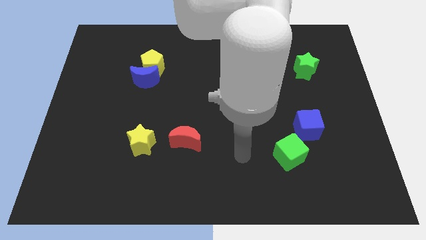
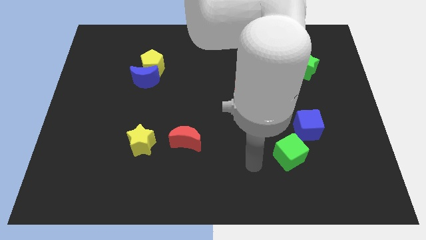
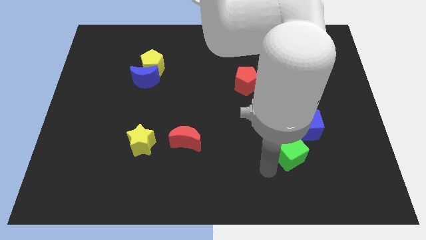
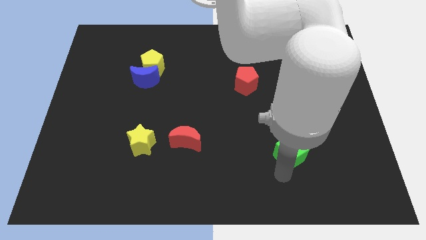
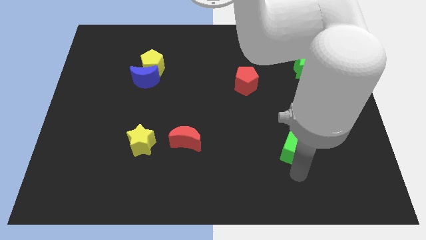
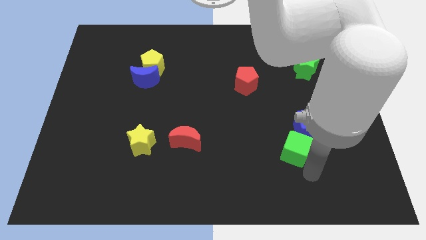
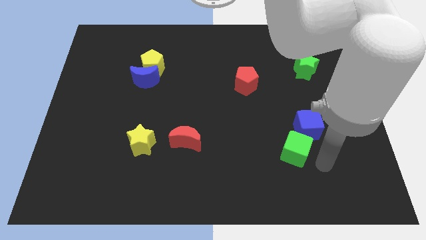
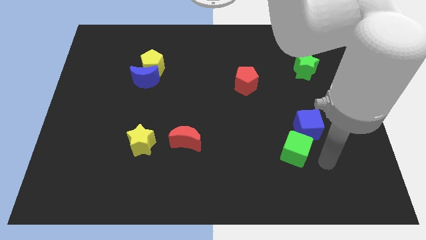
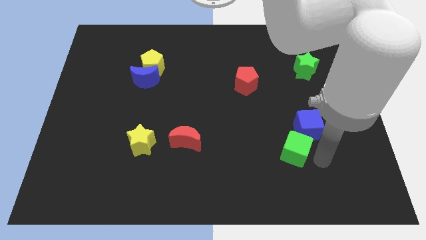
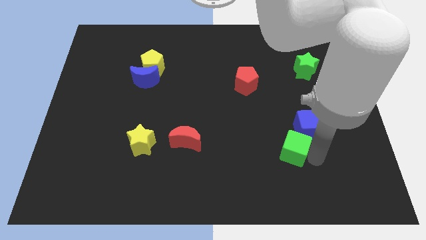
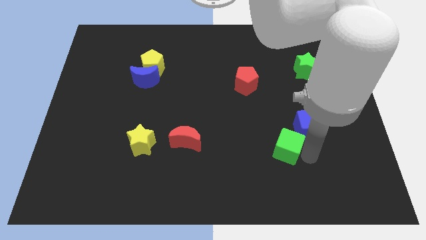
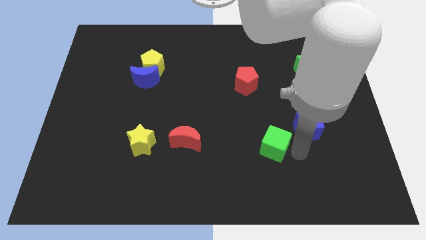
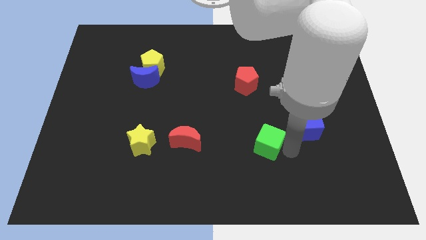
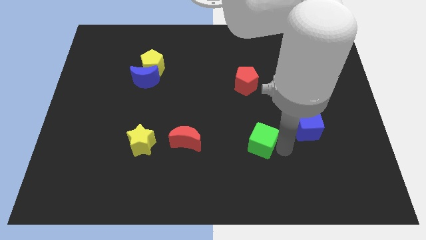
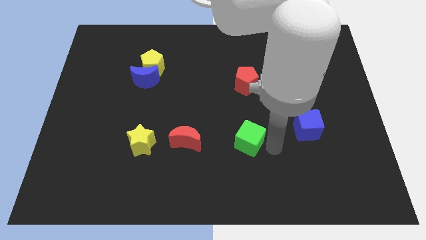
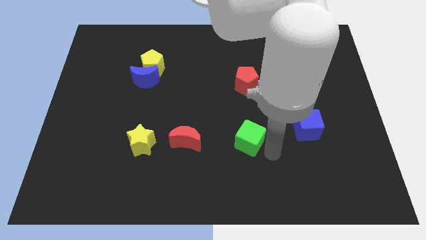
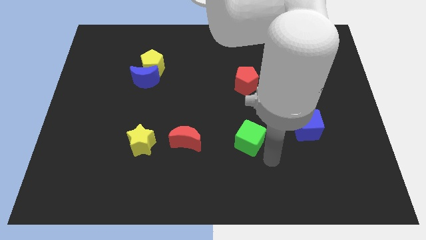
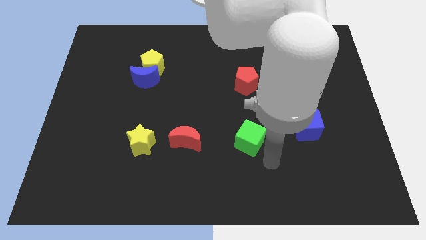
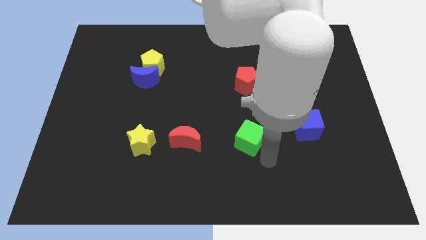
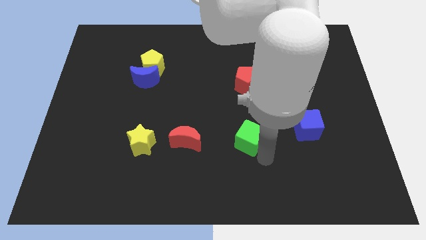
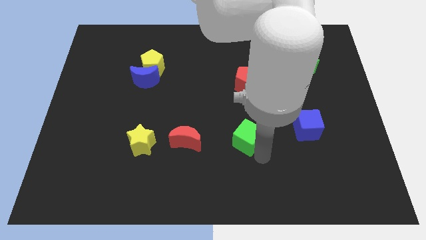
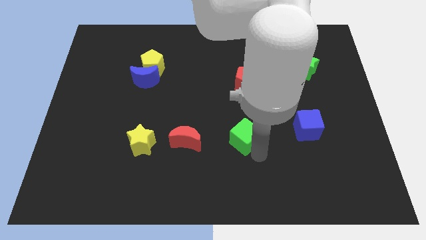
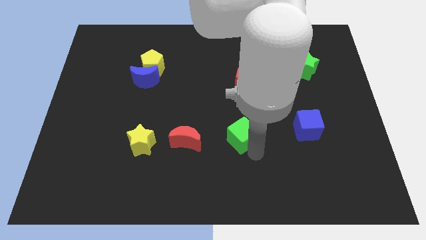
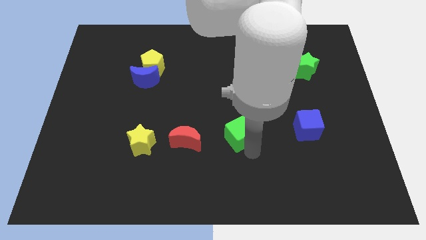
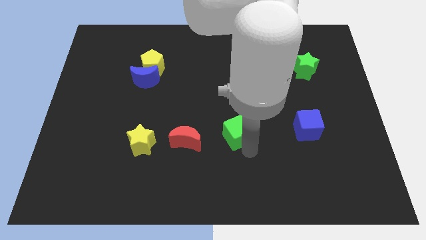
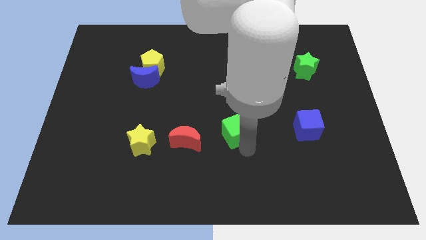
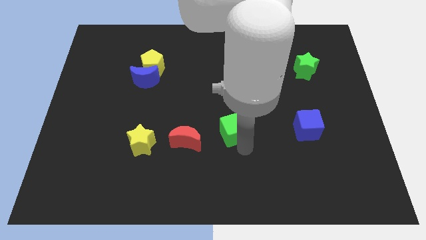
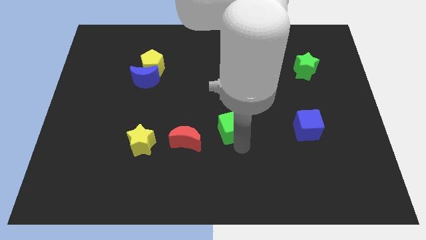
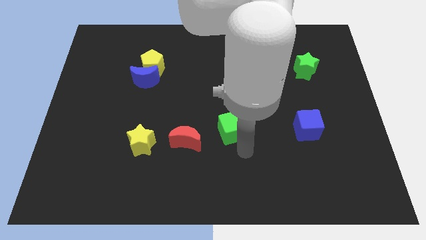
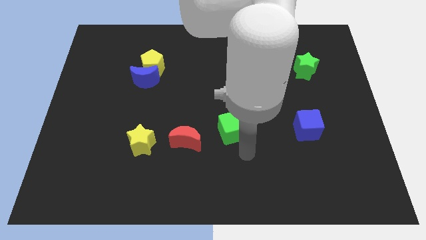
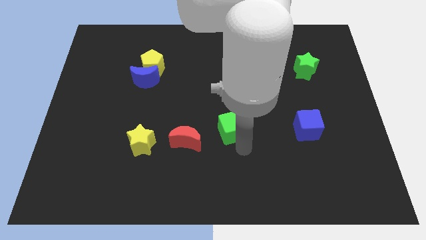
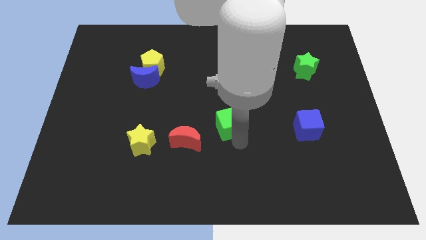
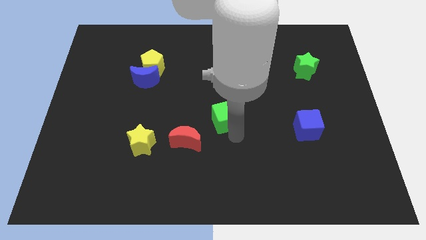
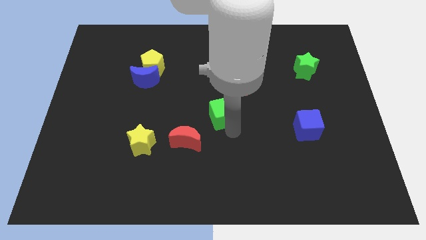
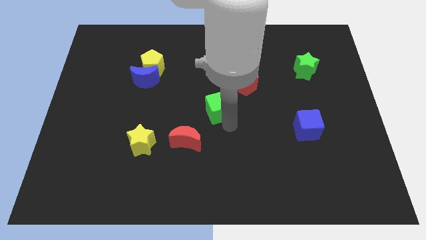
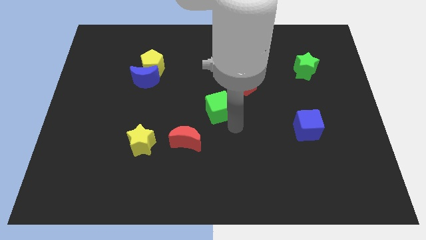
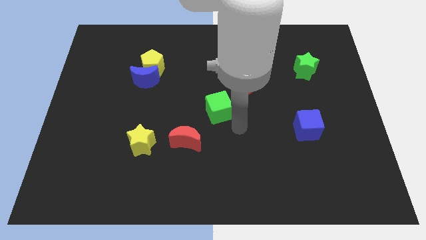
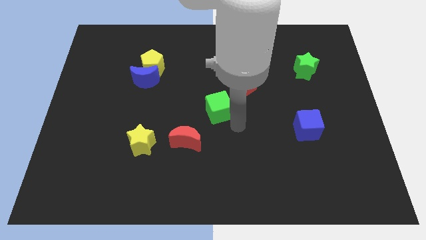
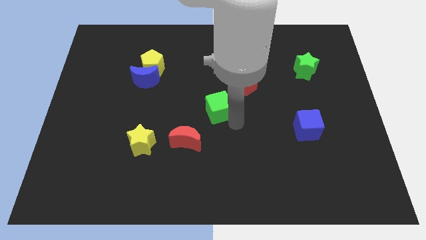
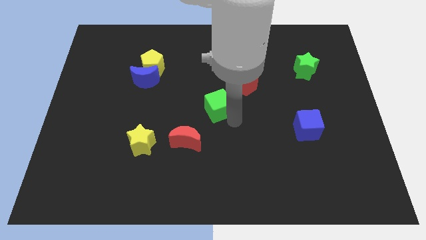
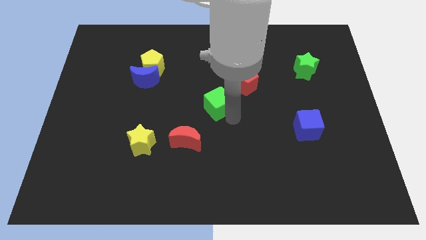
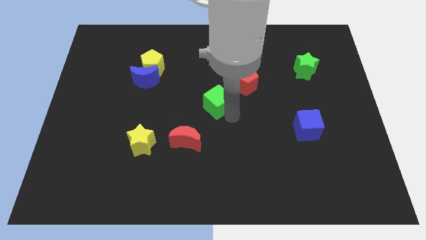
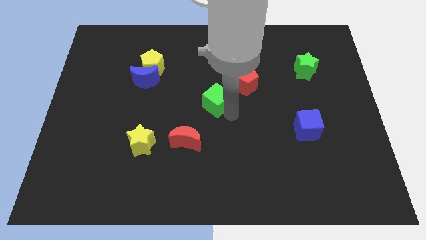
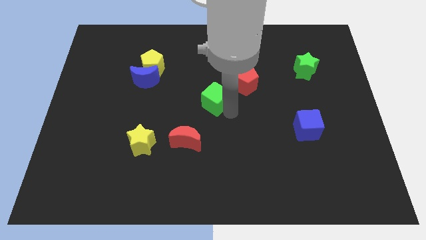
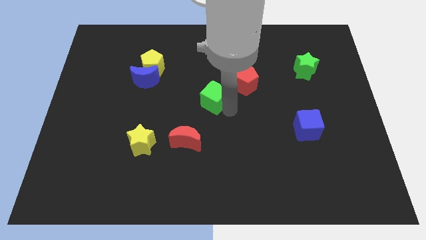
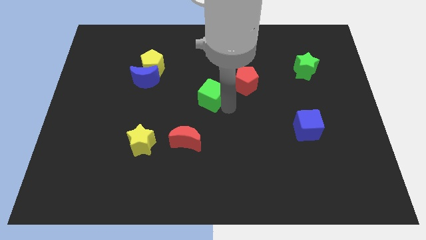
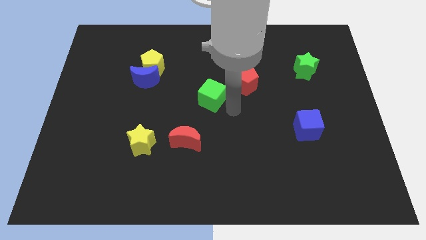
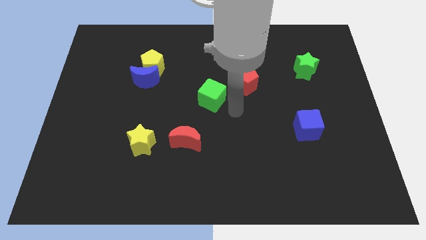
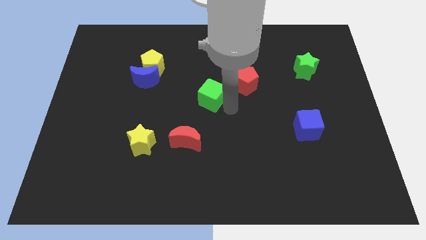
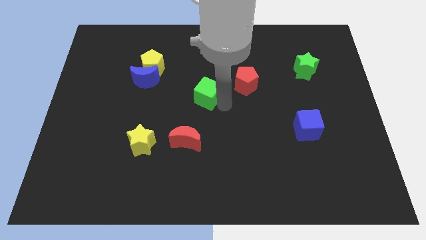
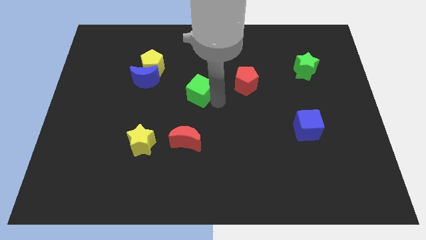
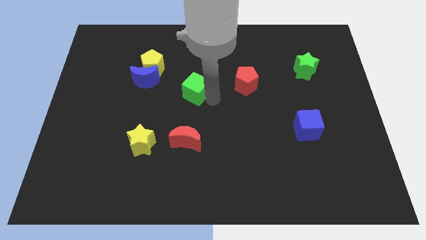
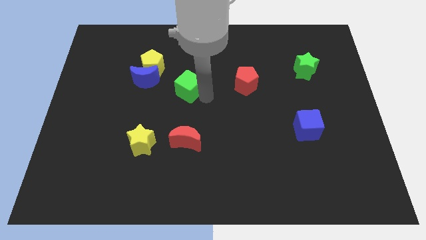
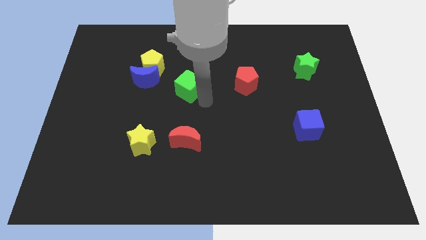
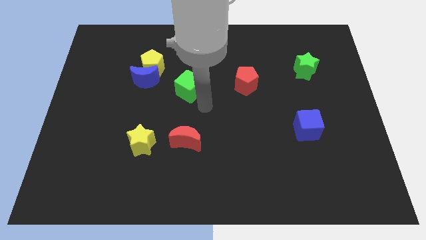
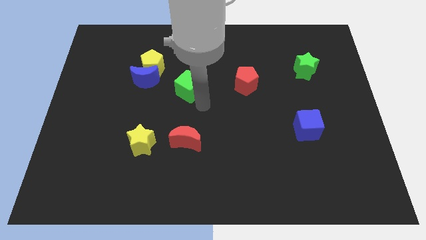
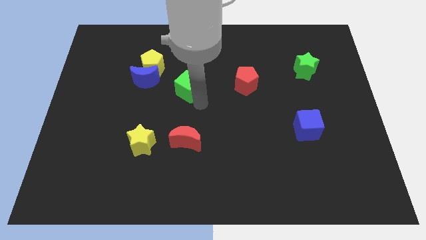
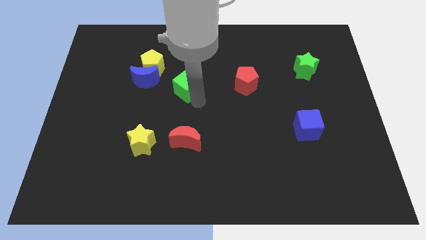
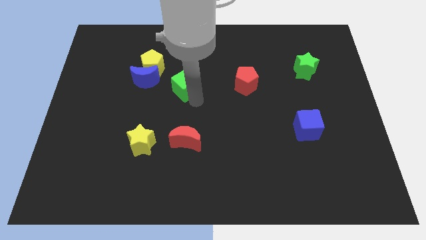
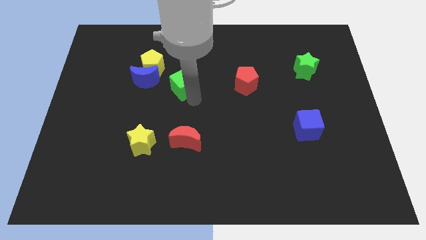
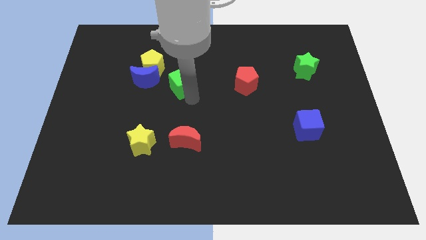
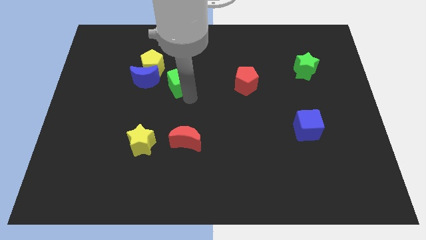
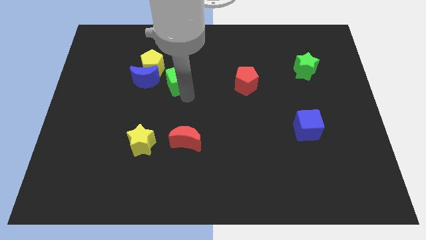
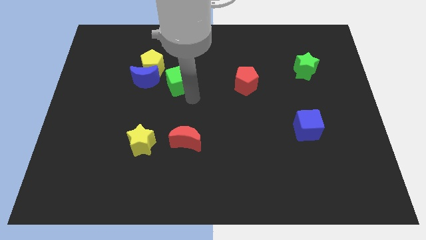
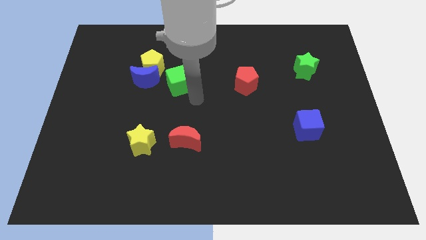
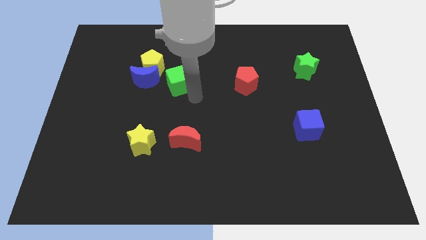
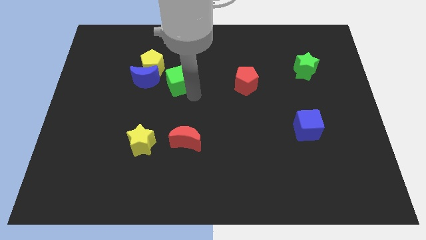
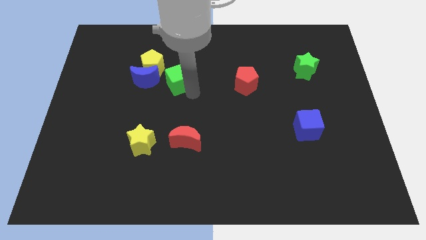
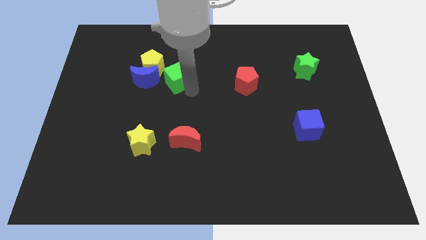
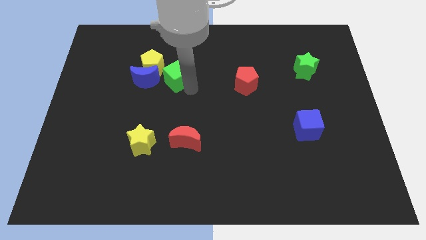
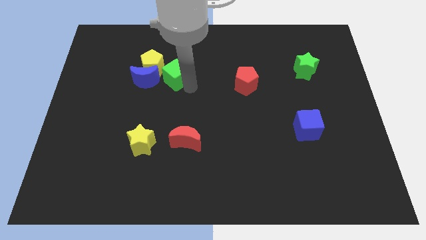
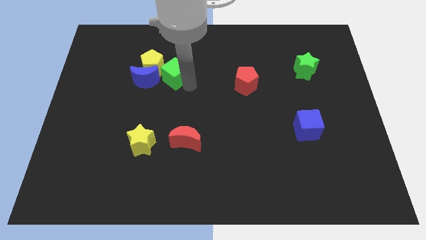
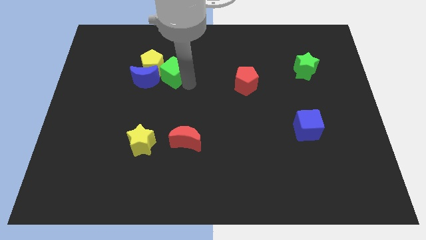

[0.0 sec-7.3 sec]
move the green cube to the yellow pentagon
